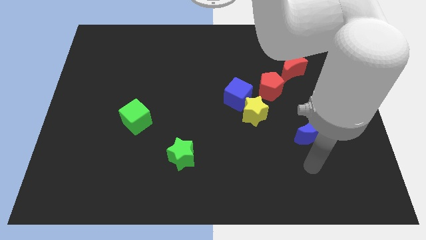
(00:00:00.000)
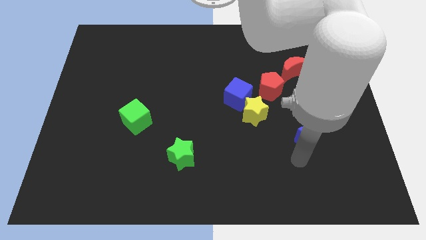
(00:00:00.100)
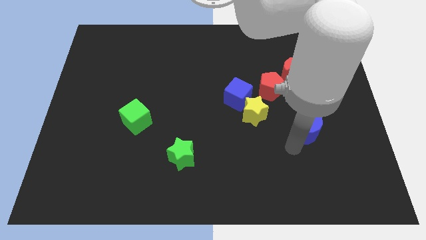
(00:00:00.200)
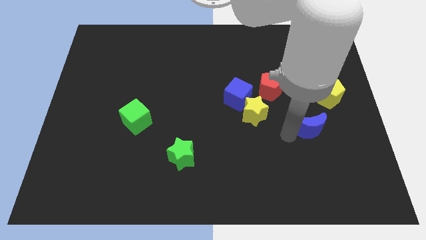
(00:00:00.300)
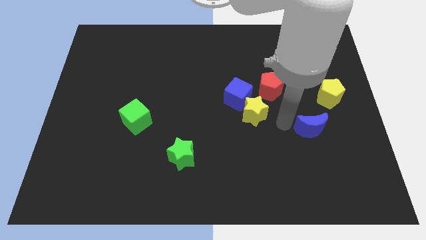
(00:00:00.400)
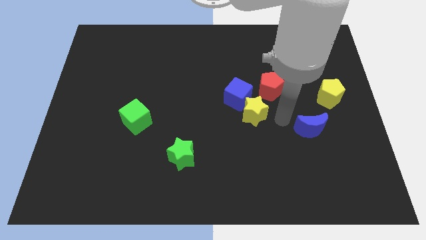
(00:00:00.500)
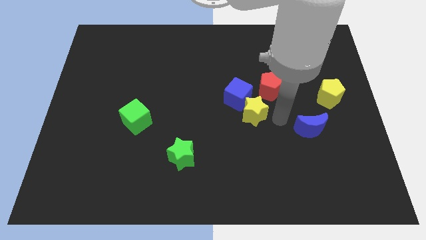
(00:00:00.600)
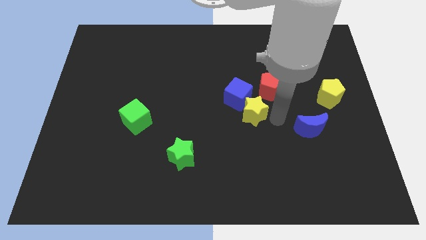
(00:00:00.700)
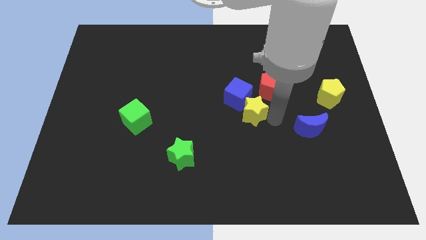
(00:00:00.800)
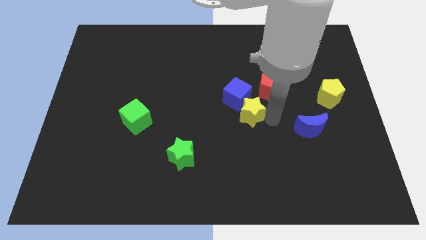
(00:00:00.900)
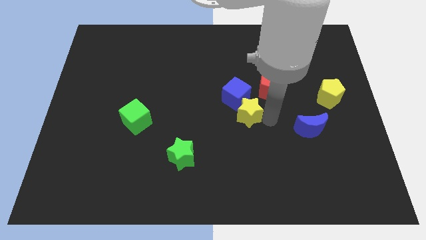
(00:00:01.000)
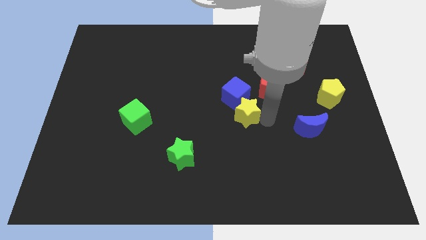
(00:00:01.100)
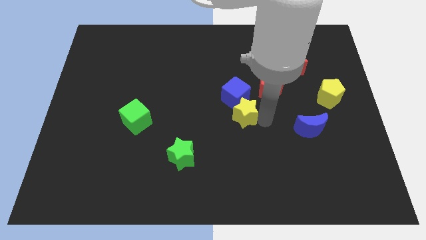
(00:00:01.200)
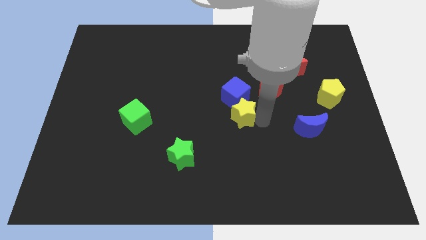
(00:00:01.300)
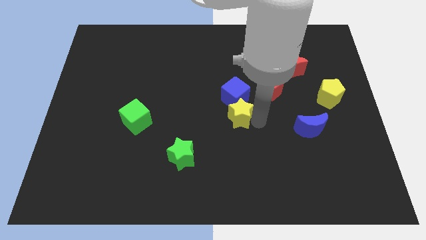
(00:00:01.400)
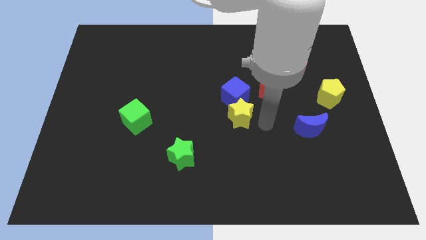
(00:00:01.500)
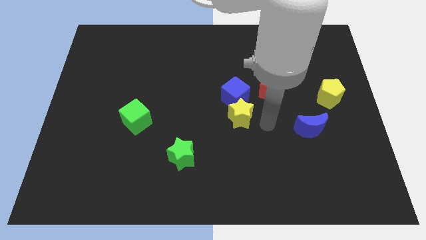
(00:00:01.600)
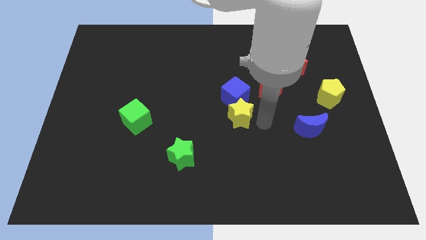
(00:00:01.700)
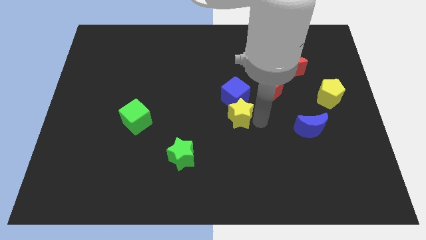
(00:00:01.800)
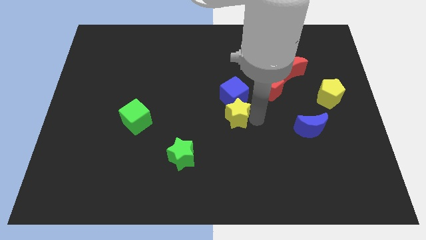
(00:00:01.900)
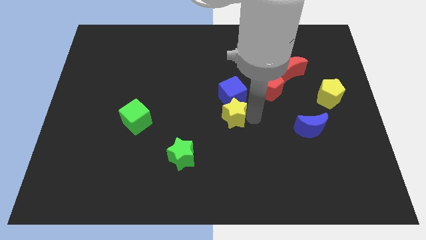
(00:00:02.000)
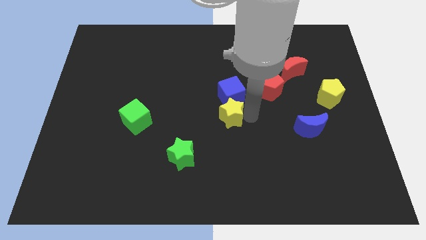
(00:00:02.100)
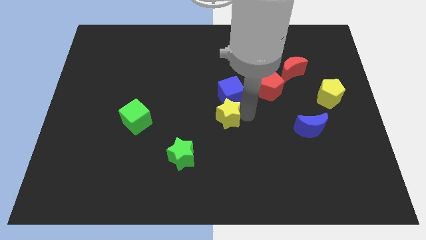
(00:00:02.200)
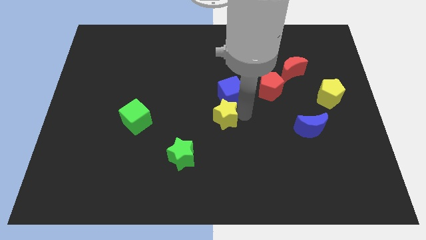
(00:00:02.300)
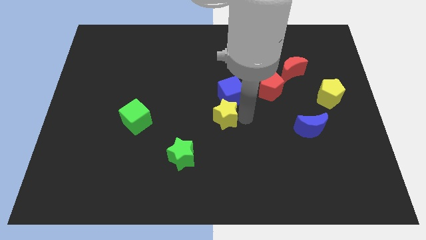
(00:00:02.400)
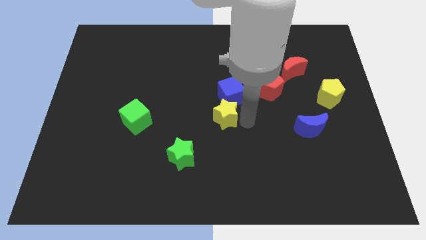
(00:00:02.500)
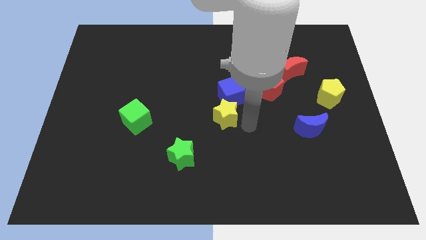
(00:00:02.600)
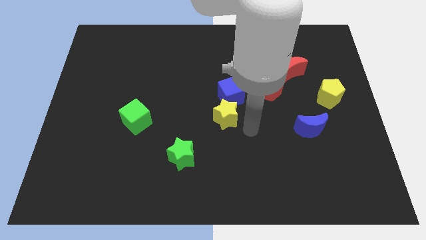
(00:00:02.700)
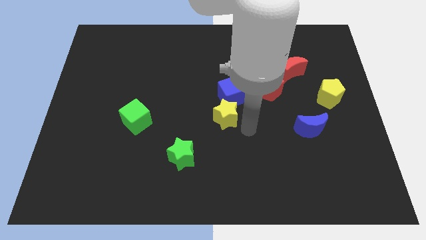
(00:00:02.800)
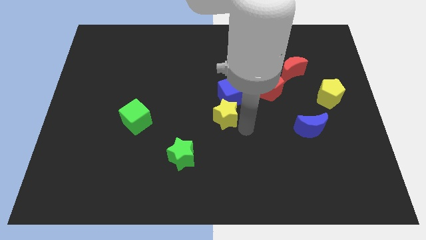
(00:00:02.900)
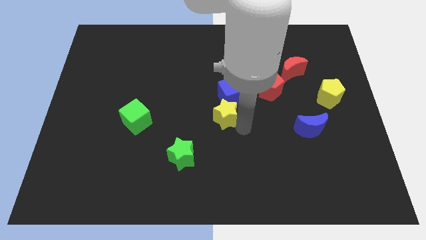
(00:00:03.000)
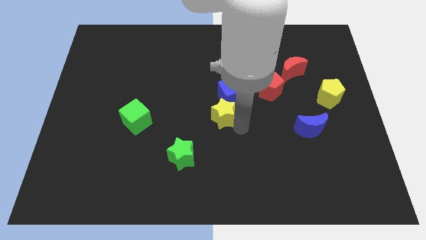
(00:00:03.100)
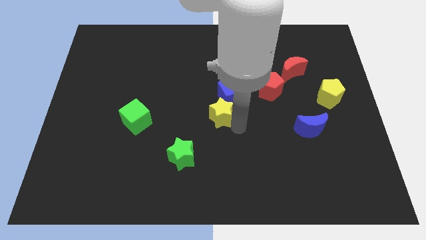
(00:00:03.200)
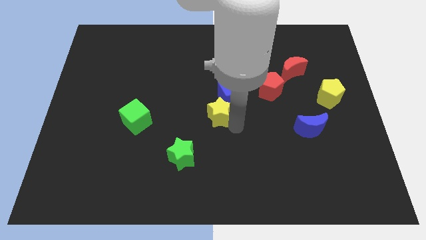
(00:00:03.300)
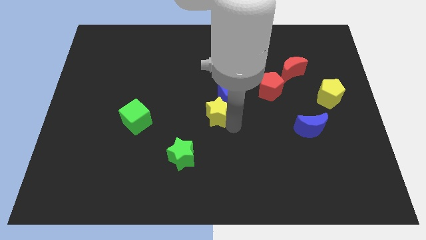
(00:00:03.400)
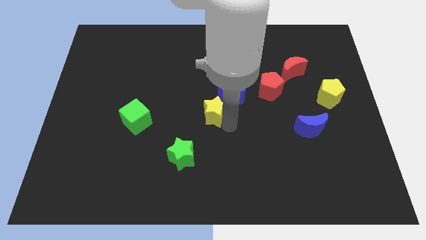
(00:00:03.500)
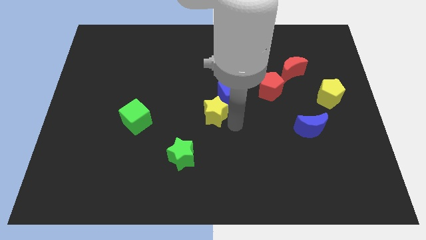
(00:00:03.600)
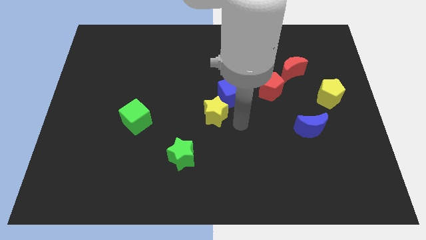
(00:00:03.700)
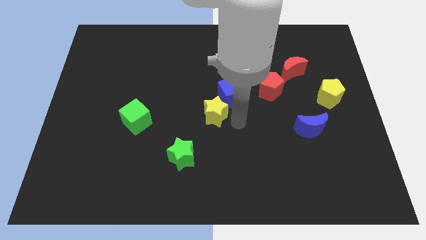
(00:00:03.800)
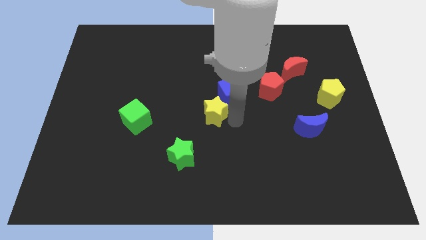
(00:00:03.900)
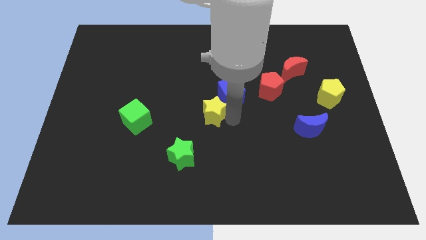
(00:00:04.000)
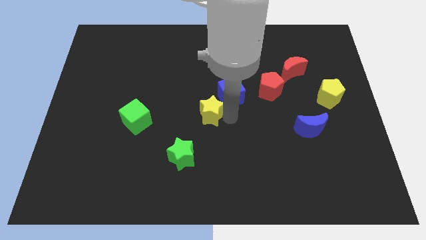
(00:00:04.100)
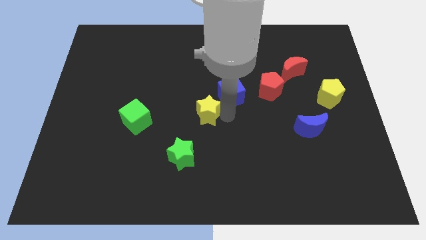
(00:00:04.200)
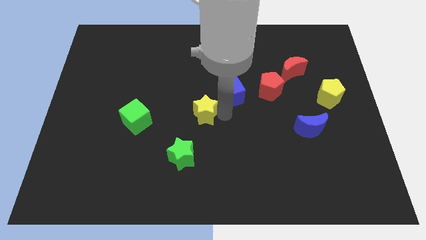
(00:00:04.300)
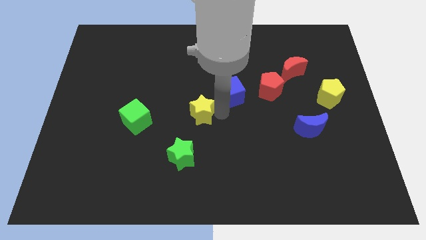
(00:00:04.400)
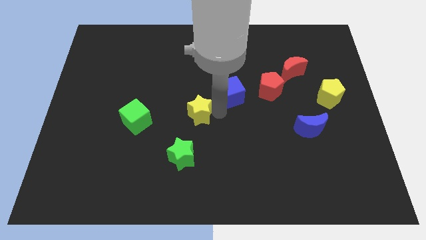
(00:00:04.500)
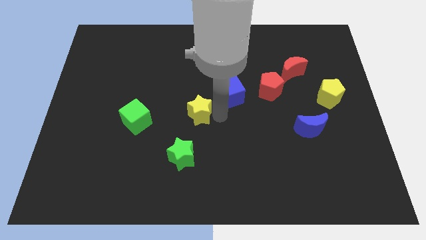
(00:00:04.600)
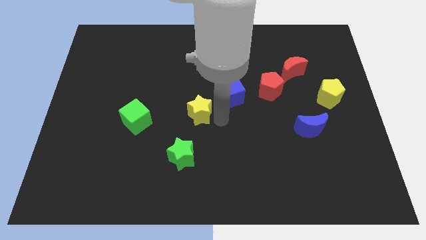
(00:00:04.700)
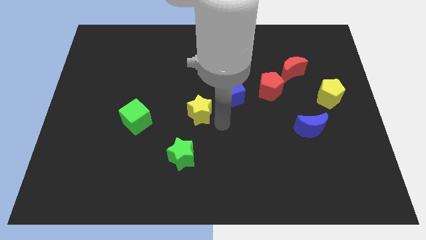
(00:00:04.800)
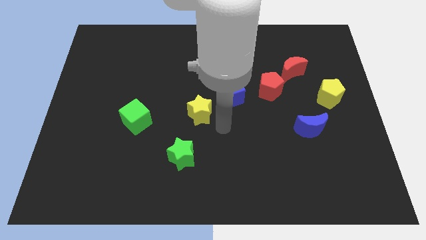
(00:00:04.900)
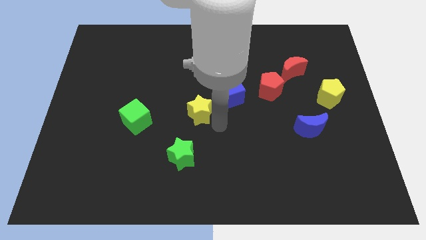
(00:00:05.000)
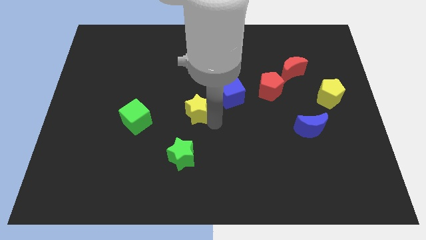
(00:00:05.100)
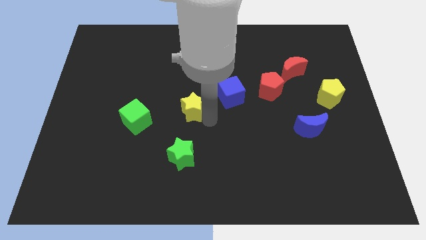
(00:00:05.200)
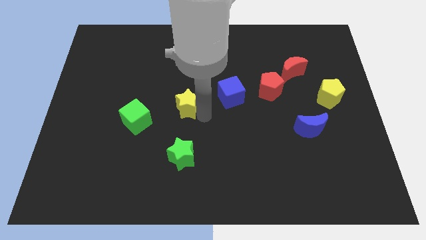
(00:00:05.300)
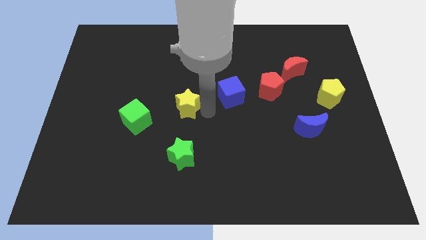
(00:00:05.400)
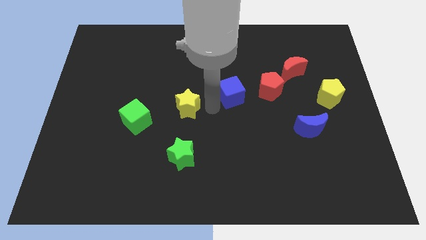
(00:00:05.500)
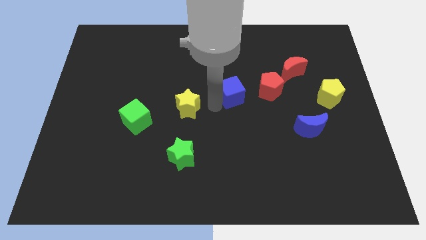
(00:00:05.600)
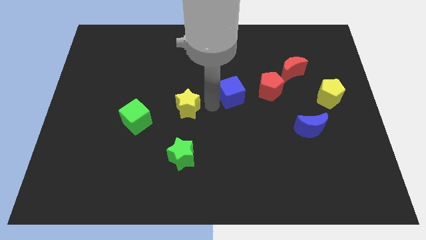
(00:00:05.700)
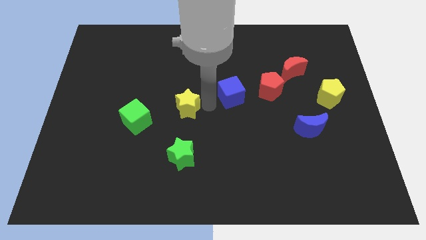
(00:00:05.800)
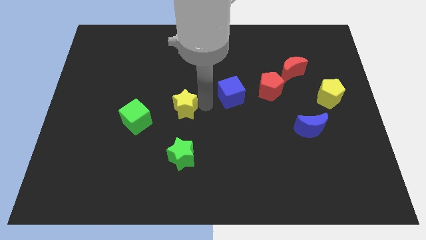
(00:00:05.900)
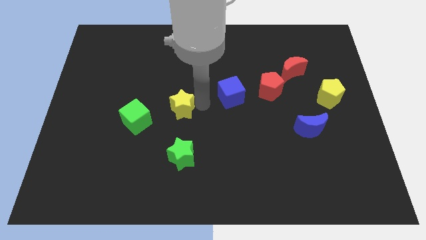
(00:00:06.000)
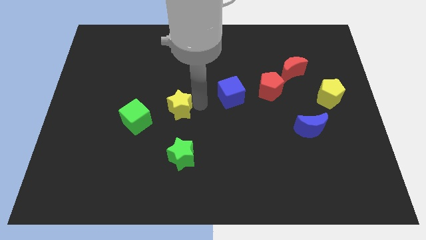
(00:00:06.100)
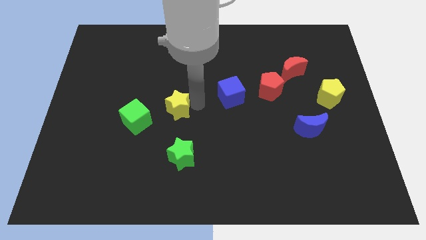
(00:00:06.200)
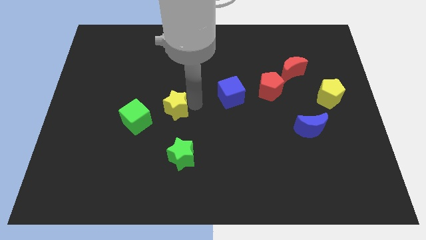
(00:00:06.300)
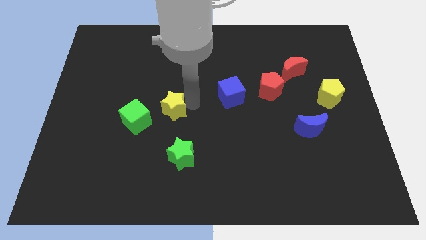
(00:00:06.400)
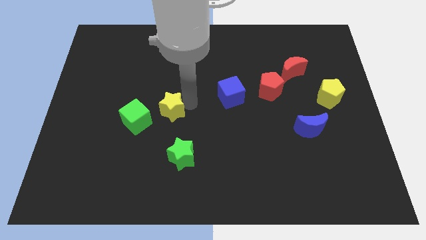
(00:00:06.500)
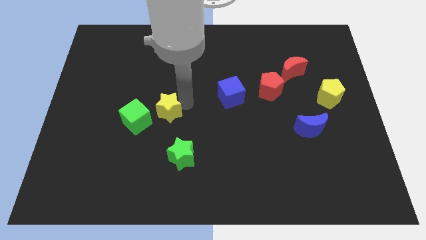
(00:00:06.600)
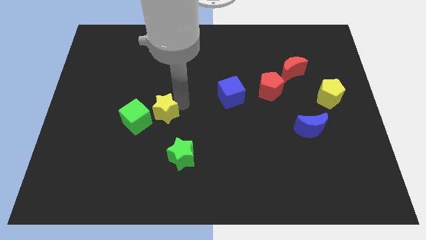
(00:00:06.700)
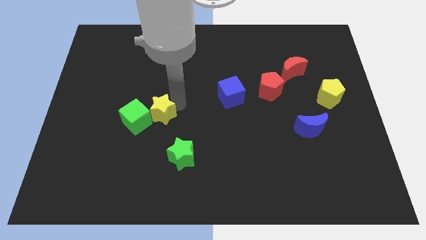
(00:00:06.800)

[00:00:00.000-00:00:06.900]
move the yellow star towards the green cube
